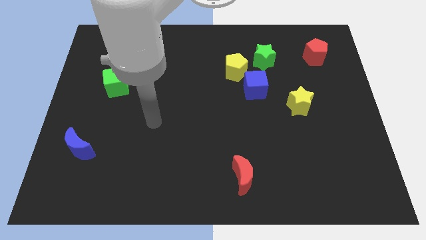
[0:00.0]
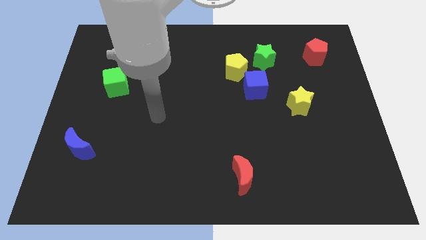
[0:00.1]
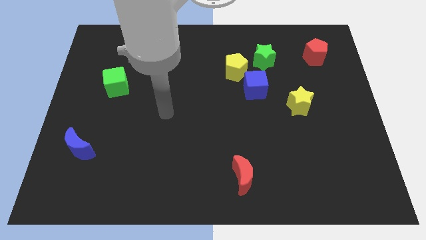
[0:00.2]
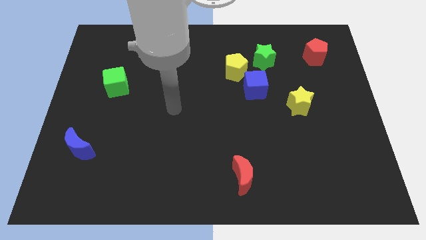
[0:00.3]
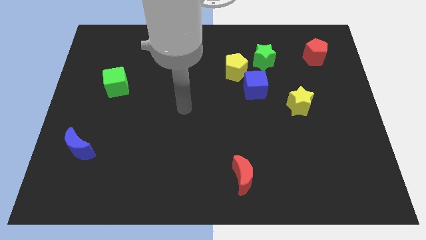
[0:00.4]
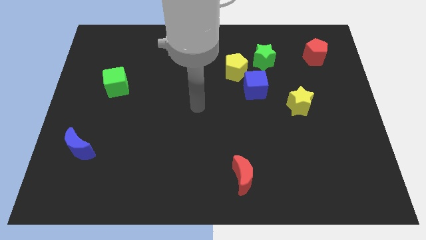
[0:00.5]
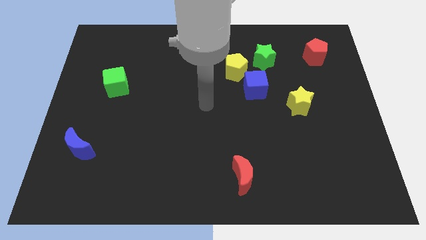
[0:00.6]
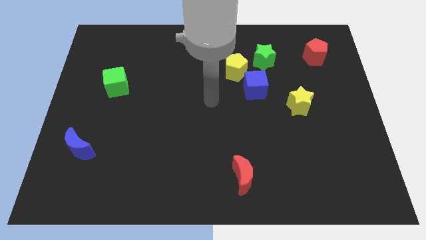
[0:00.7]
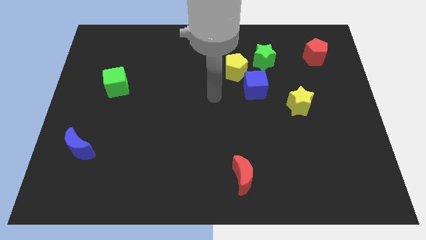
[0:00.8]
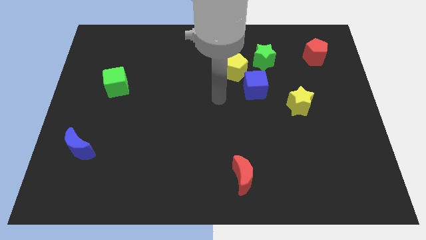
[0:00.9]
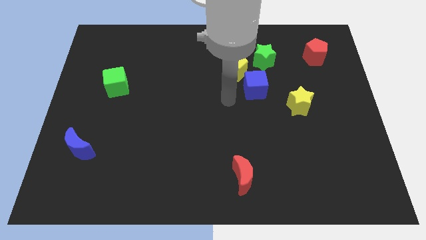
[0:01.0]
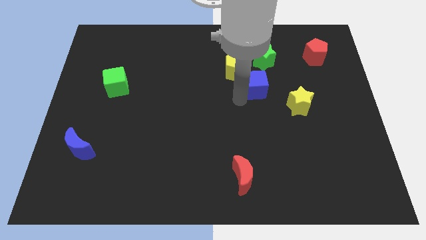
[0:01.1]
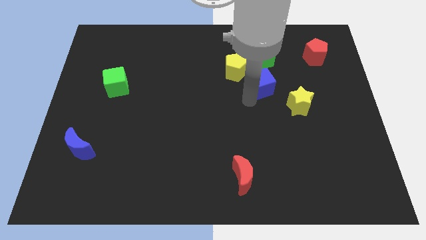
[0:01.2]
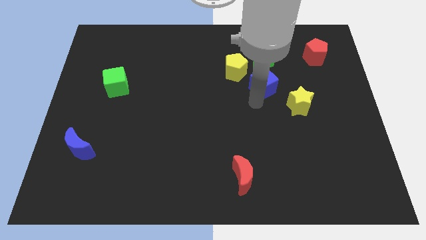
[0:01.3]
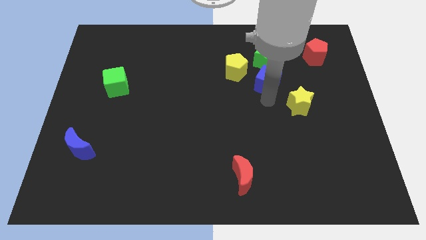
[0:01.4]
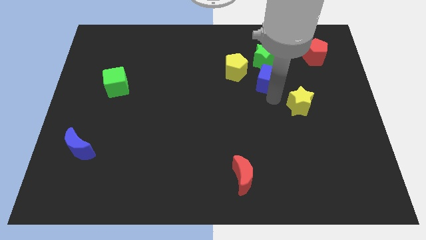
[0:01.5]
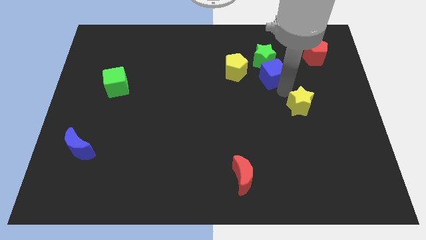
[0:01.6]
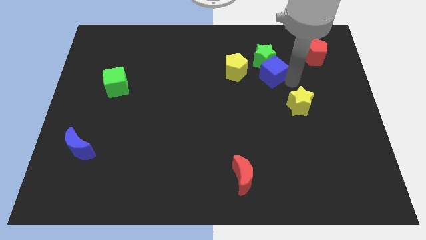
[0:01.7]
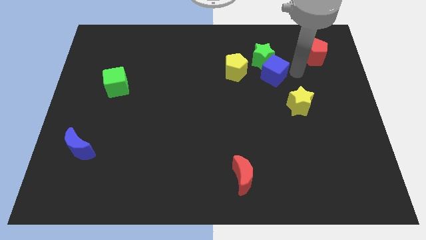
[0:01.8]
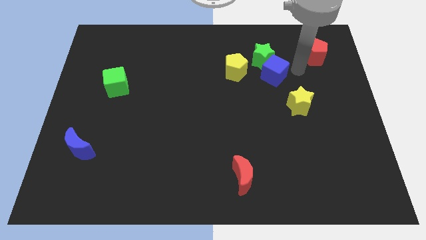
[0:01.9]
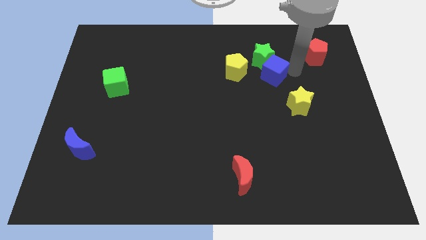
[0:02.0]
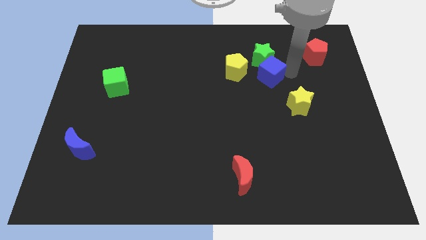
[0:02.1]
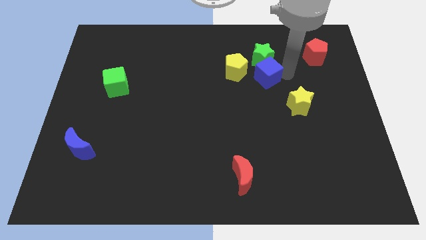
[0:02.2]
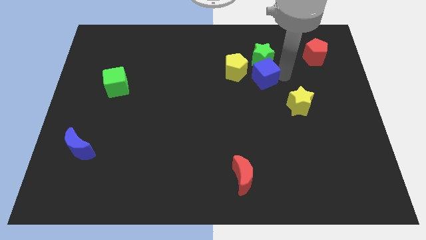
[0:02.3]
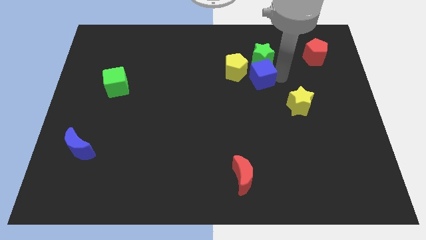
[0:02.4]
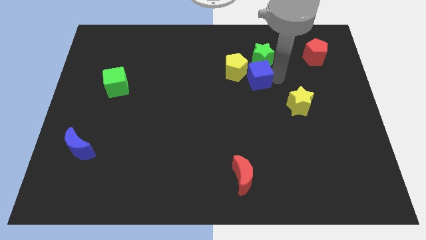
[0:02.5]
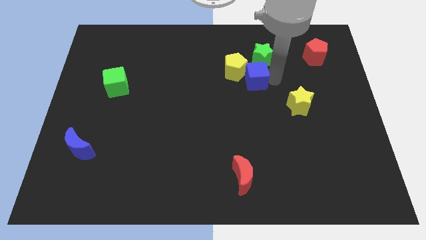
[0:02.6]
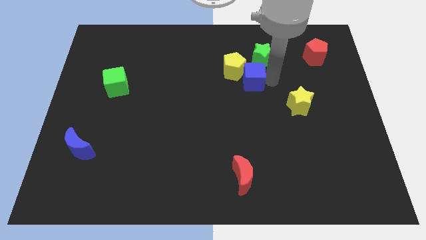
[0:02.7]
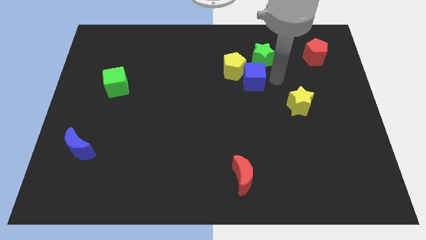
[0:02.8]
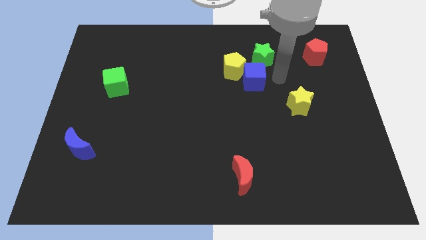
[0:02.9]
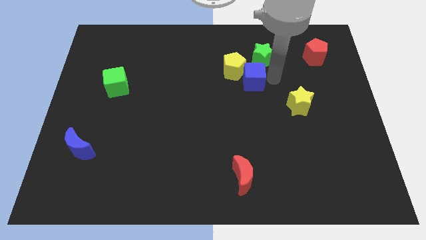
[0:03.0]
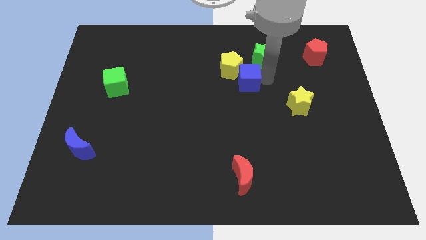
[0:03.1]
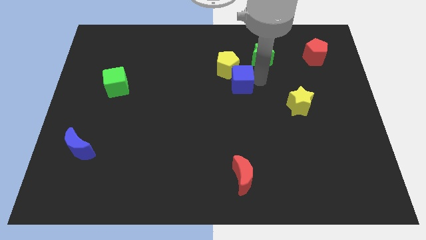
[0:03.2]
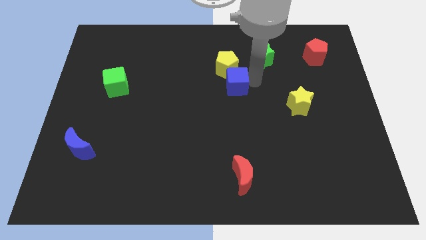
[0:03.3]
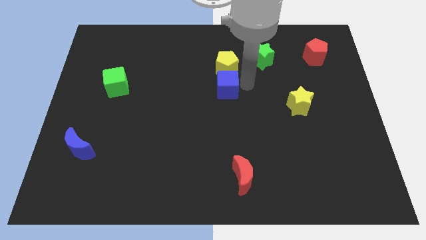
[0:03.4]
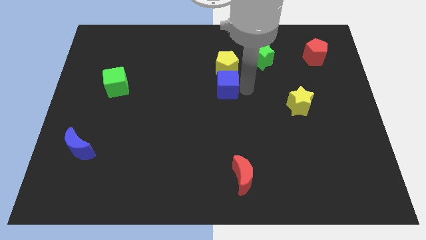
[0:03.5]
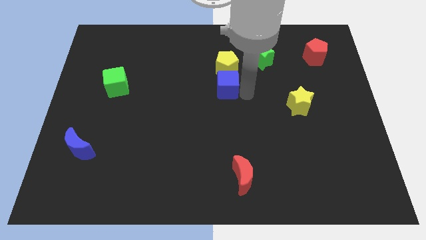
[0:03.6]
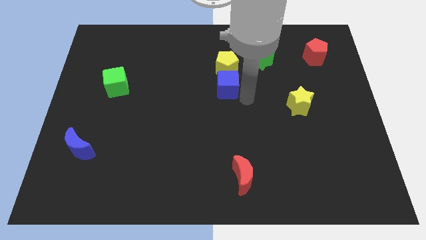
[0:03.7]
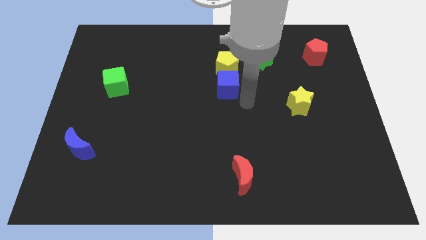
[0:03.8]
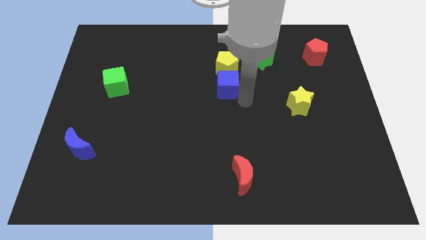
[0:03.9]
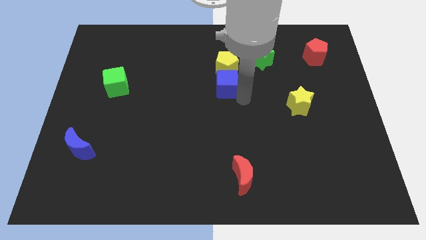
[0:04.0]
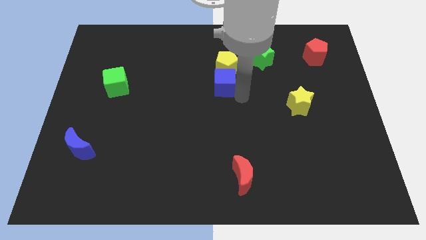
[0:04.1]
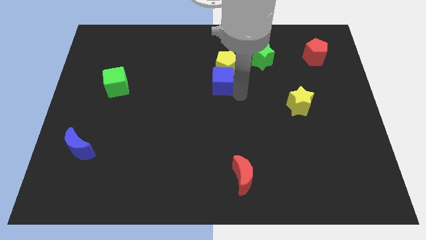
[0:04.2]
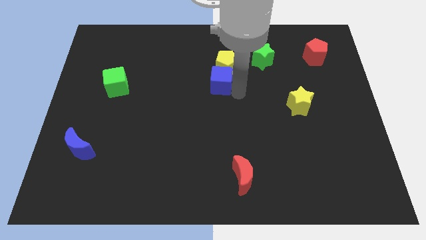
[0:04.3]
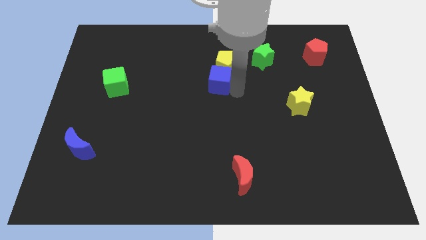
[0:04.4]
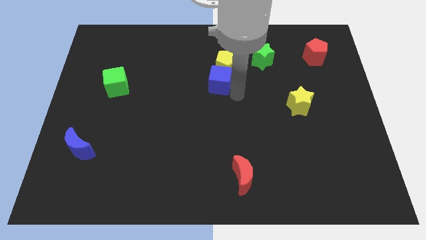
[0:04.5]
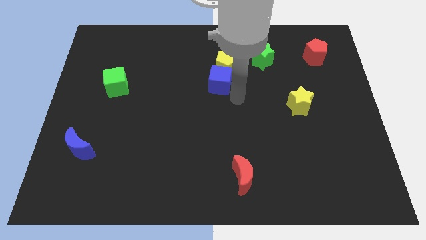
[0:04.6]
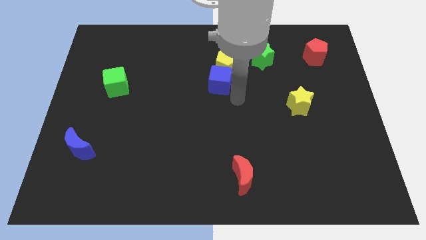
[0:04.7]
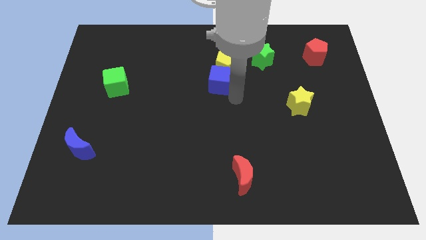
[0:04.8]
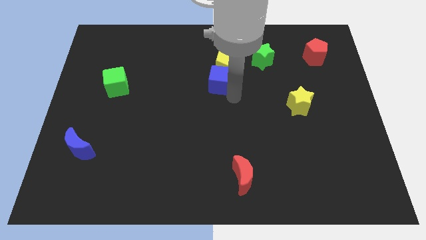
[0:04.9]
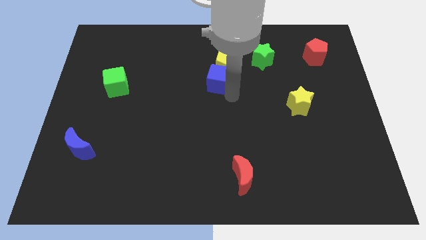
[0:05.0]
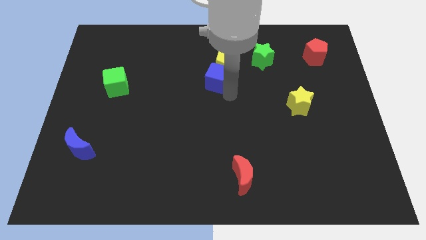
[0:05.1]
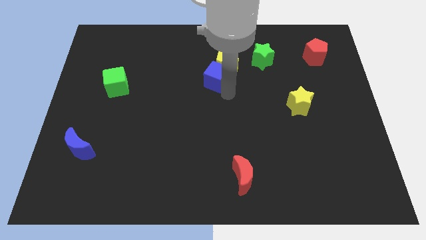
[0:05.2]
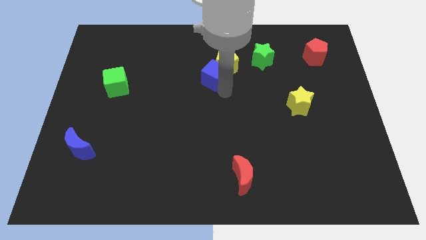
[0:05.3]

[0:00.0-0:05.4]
put the blue cube to the left side of the yellow pentagon

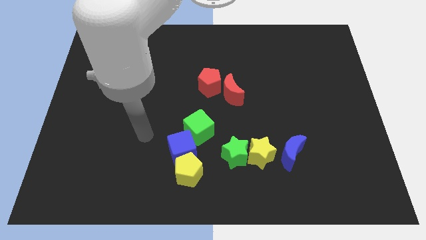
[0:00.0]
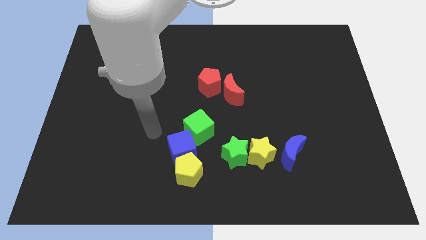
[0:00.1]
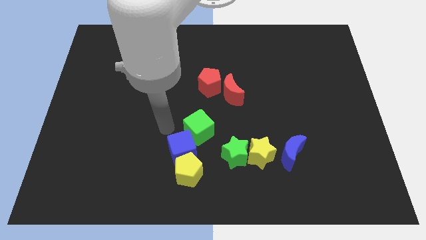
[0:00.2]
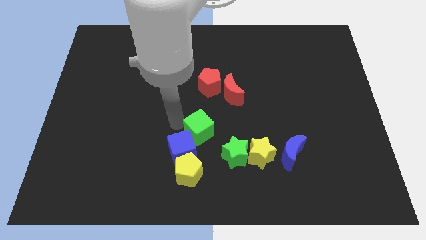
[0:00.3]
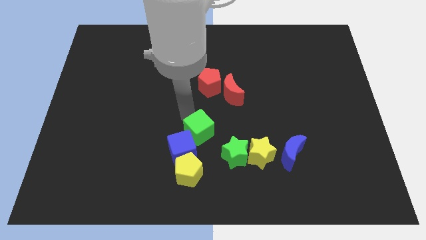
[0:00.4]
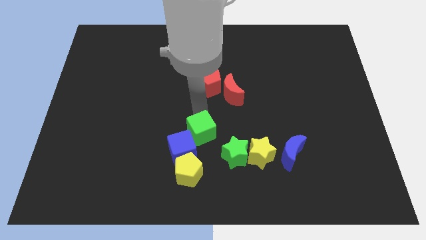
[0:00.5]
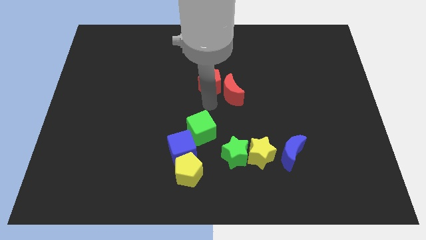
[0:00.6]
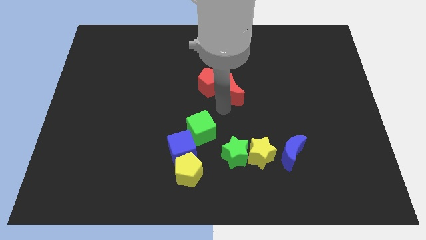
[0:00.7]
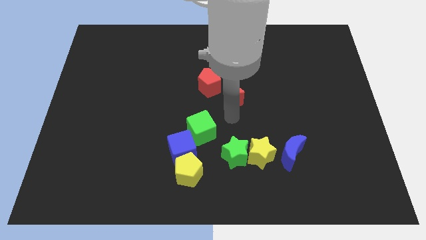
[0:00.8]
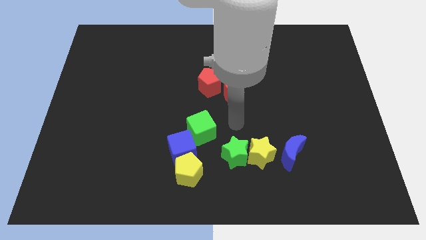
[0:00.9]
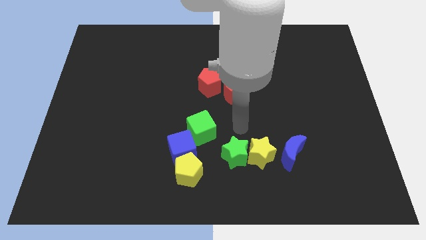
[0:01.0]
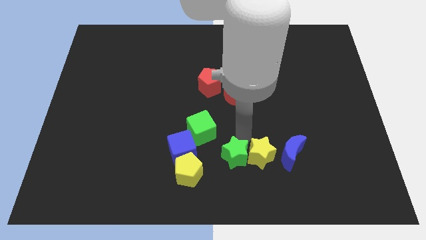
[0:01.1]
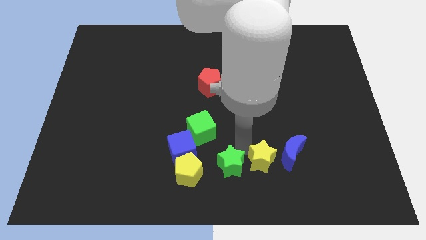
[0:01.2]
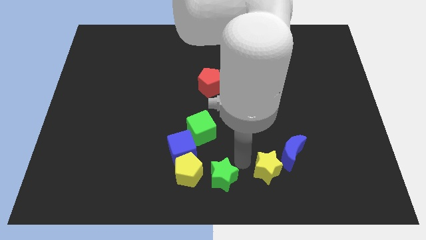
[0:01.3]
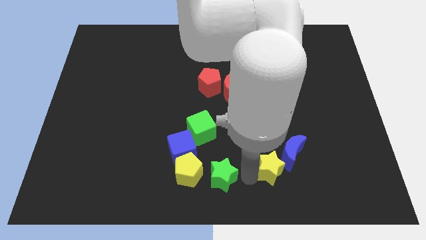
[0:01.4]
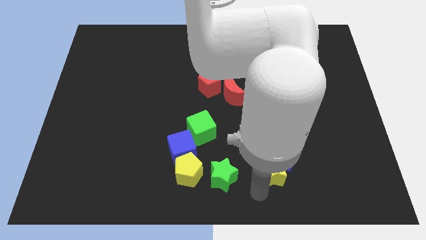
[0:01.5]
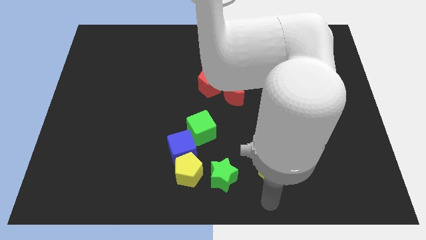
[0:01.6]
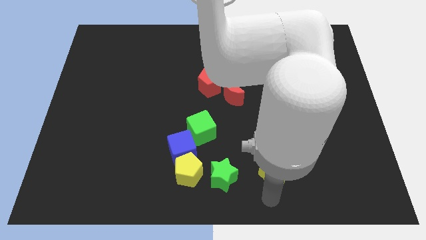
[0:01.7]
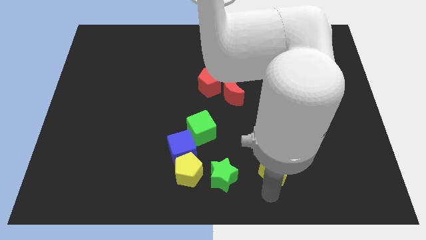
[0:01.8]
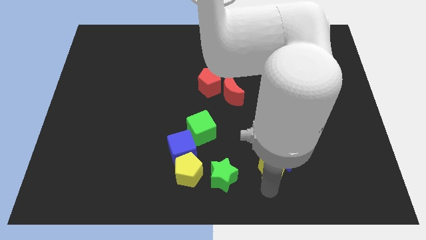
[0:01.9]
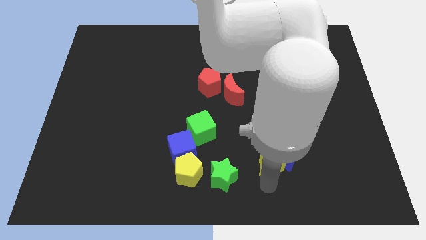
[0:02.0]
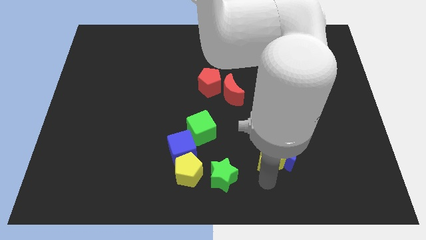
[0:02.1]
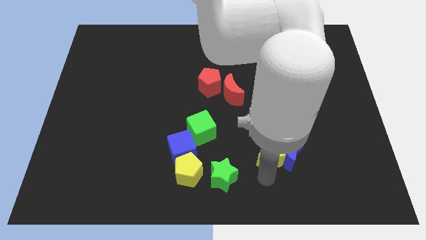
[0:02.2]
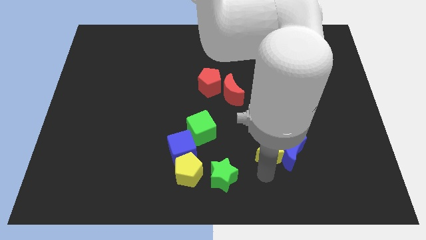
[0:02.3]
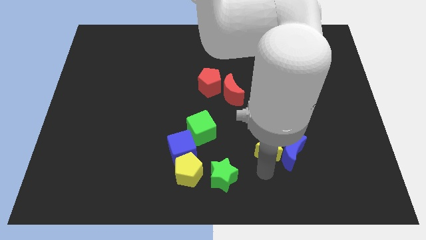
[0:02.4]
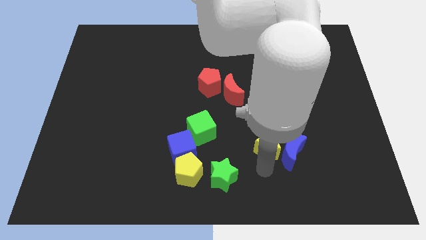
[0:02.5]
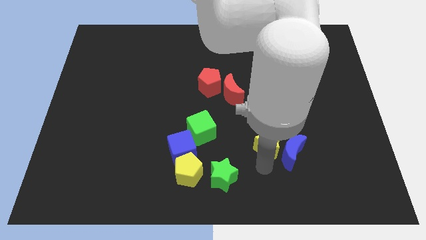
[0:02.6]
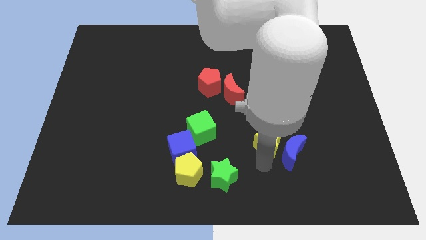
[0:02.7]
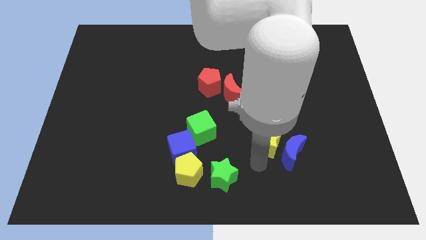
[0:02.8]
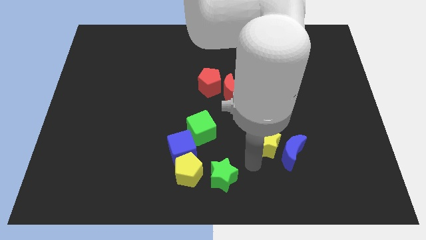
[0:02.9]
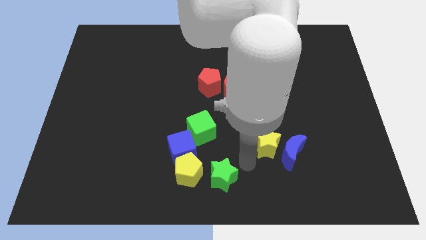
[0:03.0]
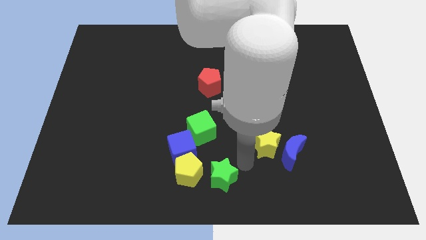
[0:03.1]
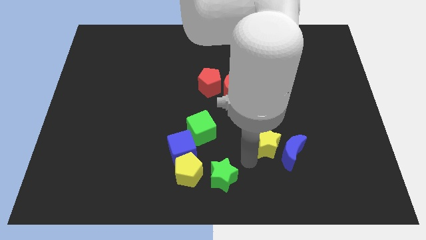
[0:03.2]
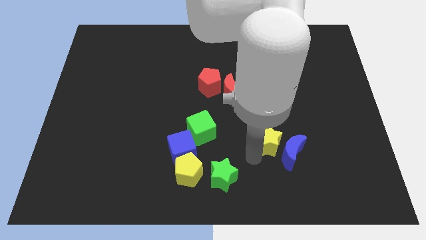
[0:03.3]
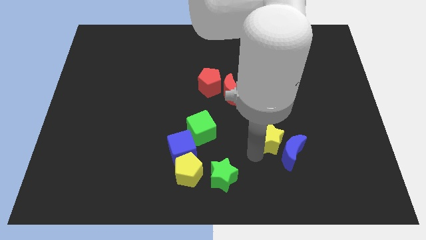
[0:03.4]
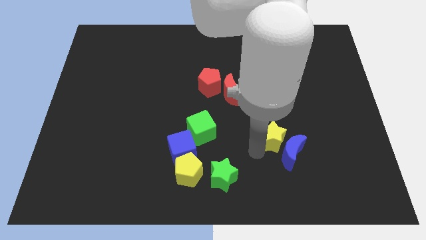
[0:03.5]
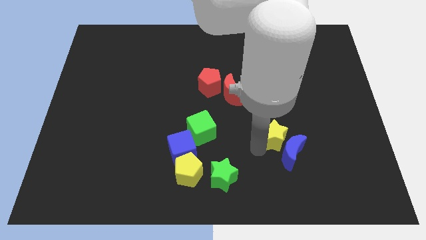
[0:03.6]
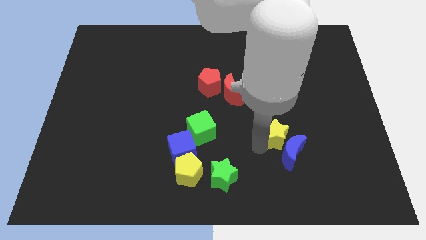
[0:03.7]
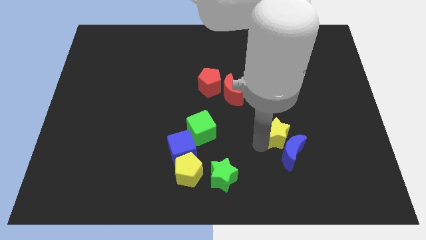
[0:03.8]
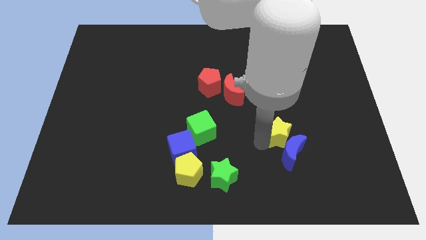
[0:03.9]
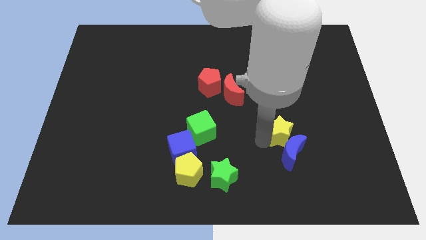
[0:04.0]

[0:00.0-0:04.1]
push the yellow star diagonally up and to the right of the blue moon
